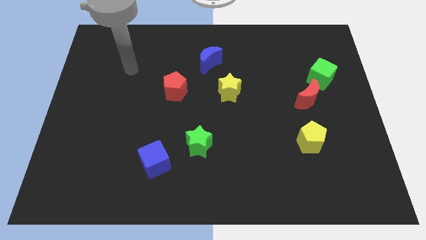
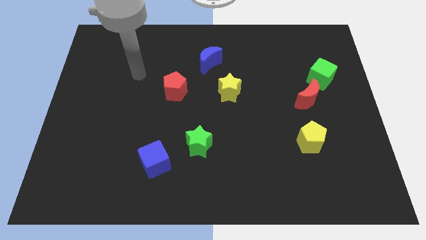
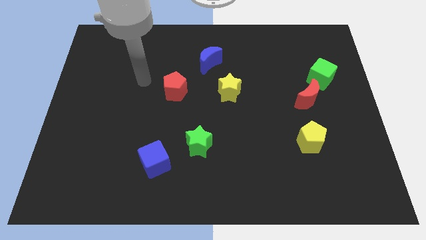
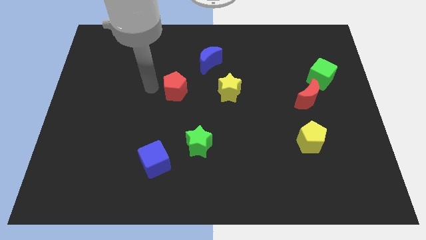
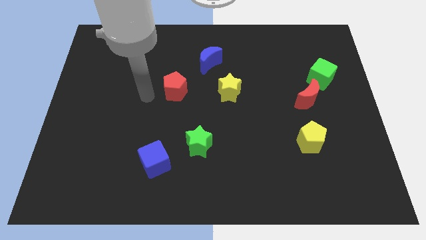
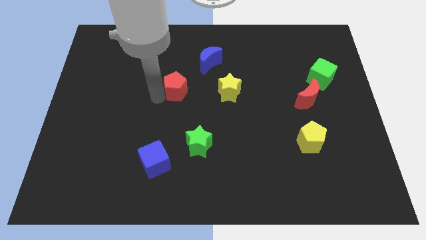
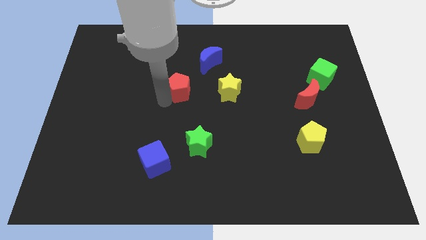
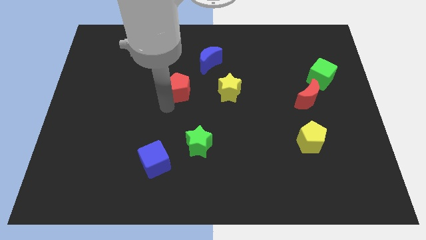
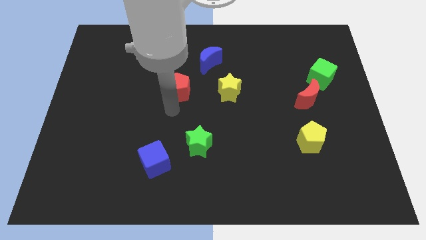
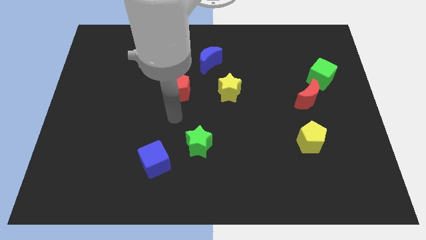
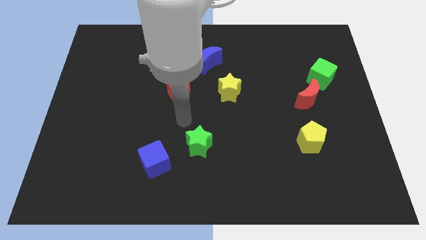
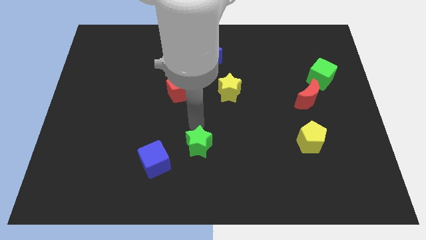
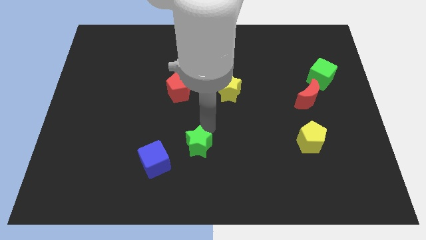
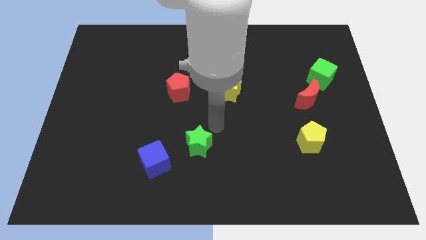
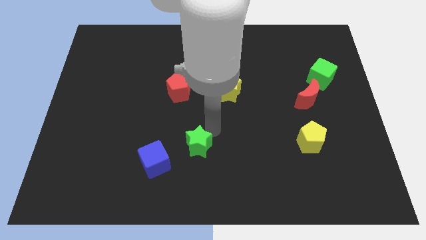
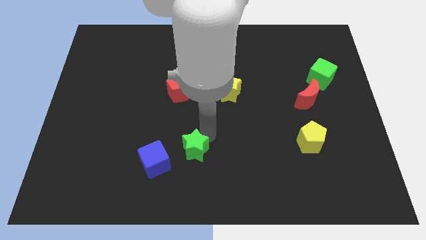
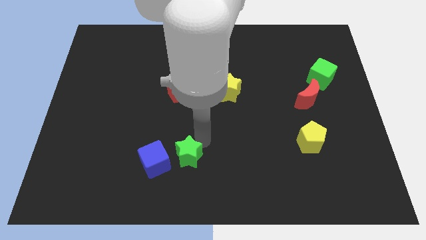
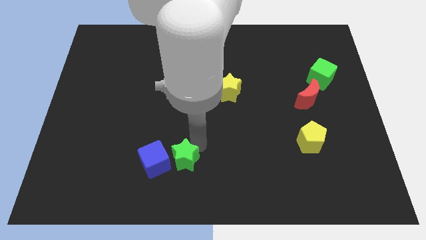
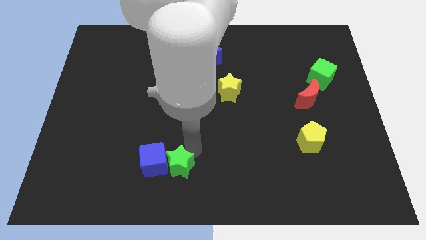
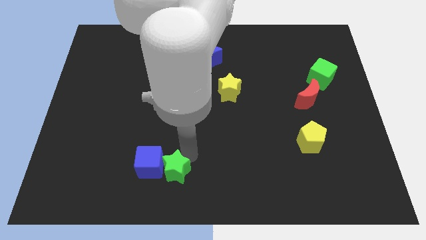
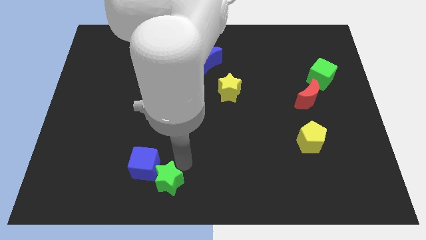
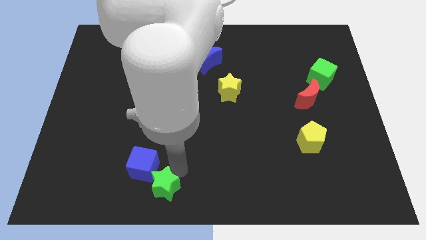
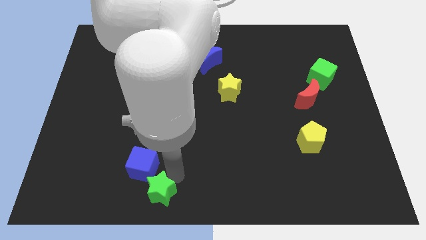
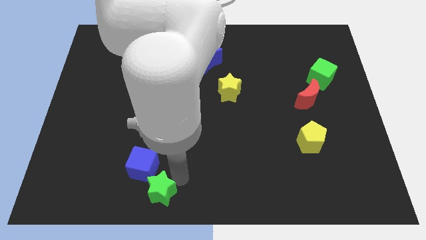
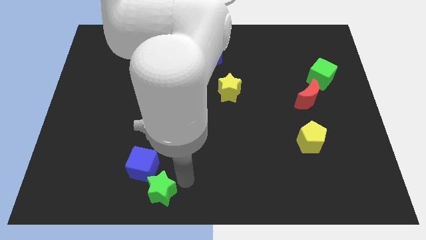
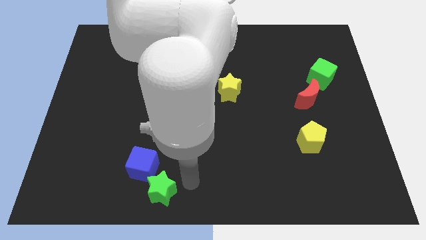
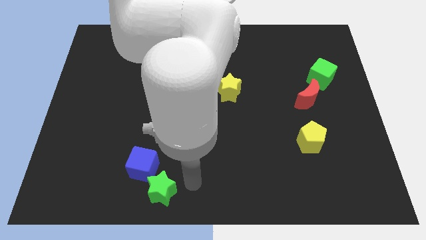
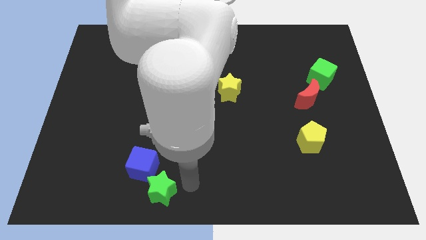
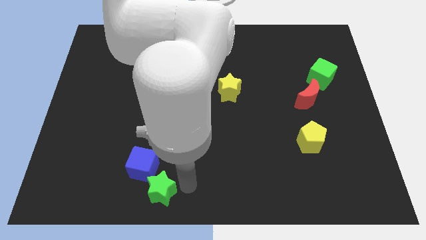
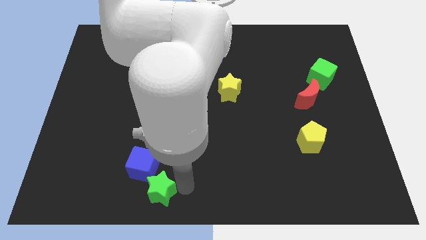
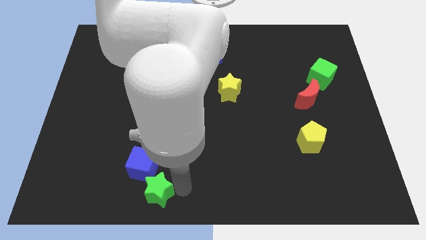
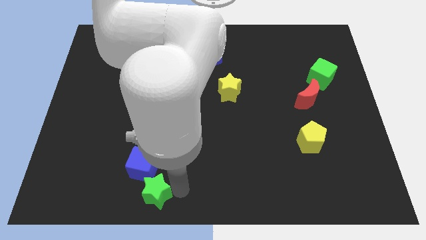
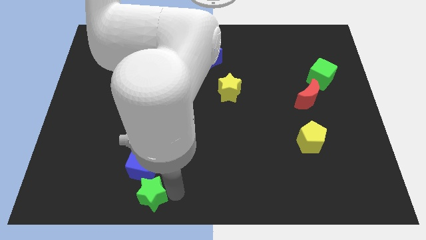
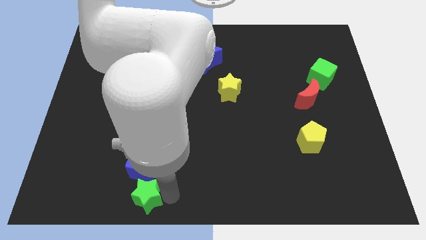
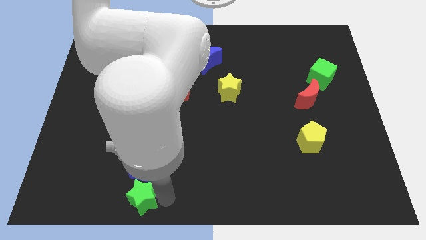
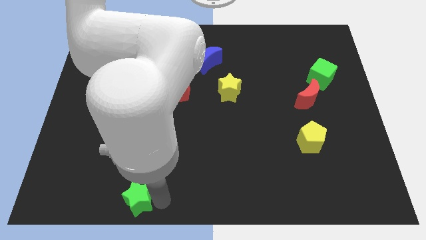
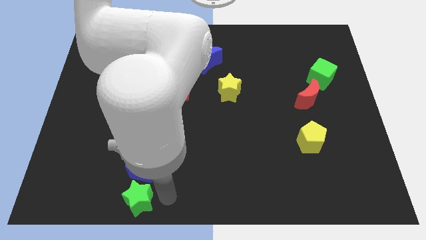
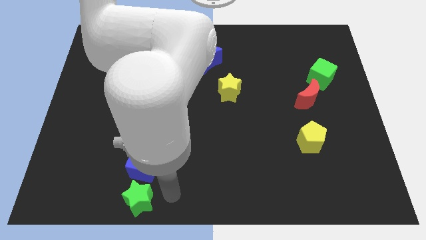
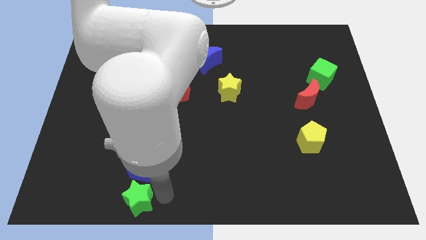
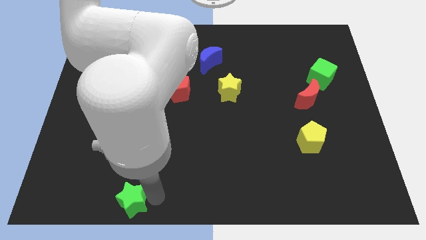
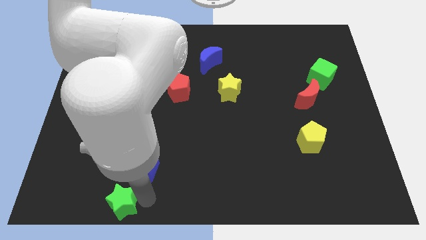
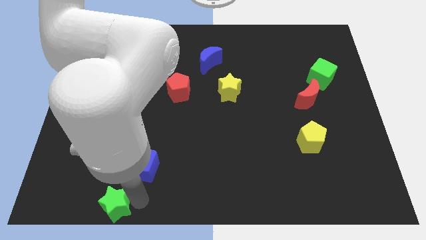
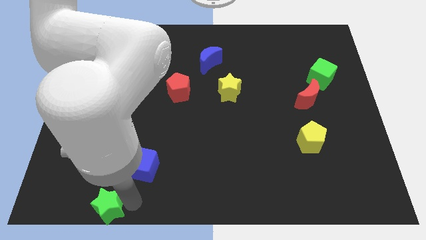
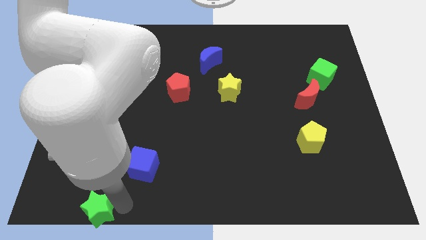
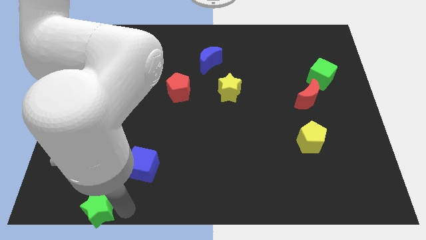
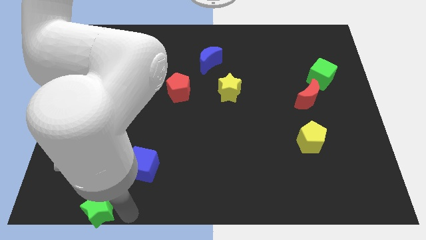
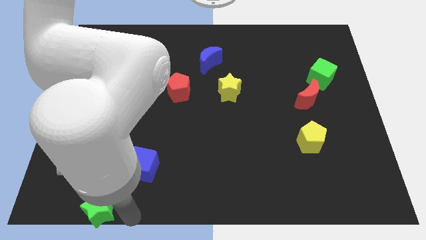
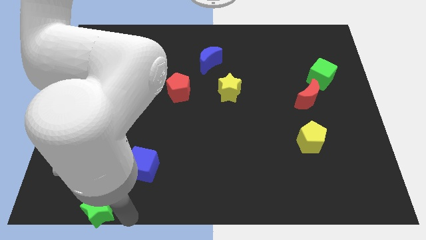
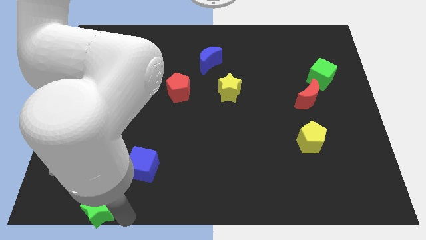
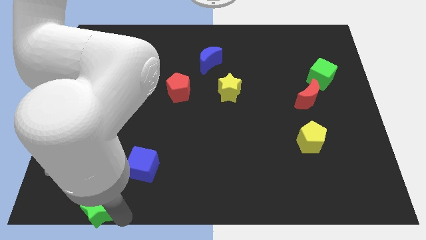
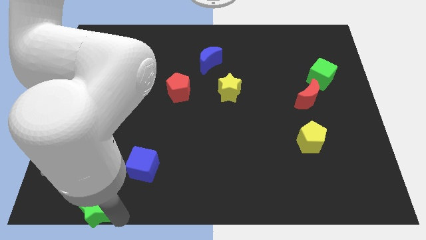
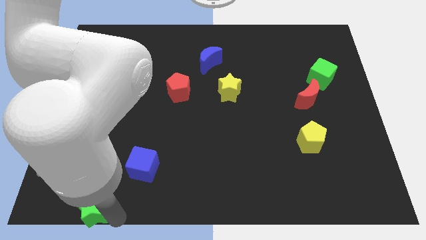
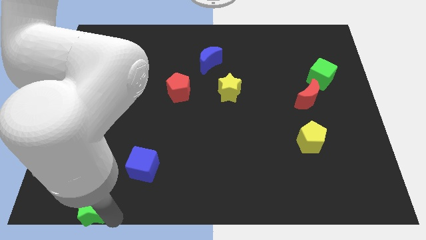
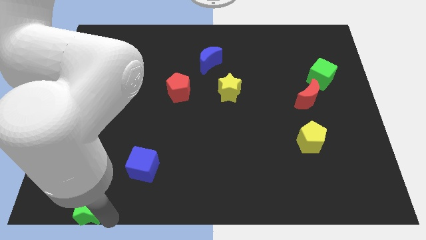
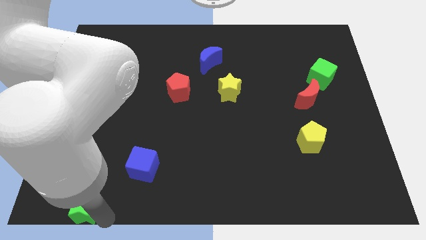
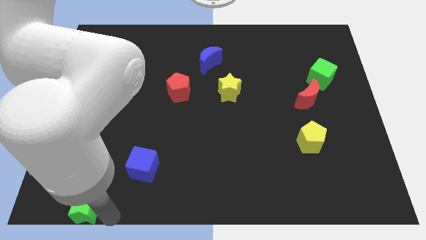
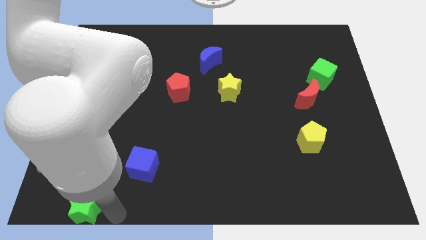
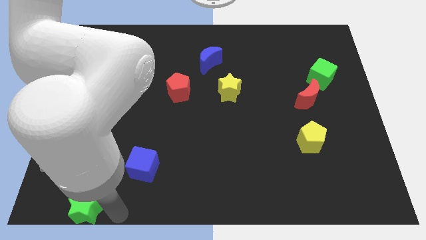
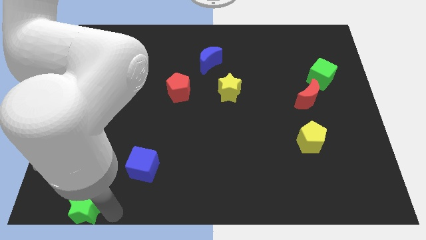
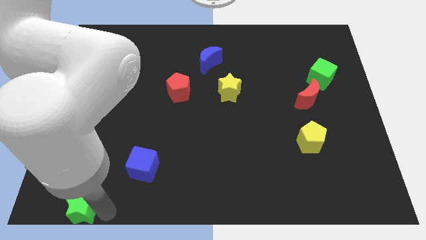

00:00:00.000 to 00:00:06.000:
slide the green star to the bottom left of the board
